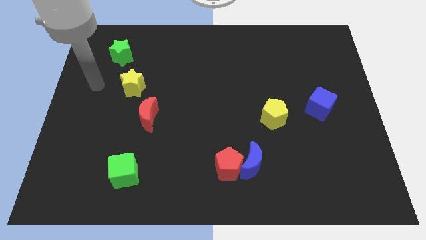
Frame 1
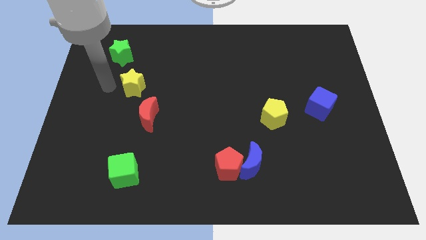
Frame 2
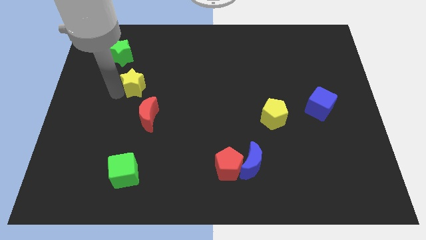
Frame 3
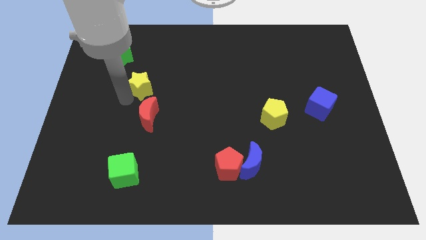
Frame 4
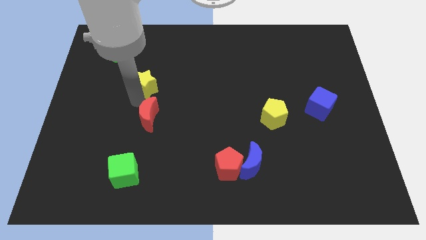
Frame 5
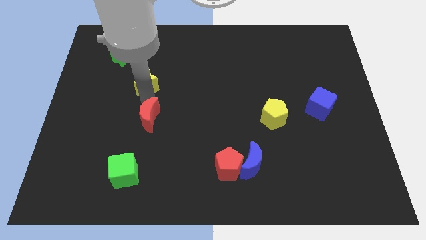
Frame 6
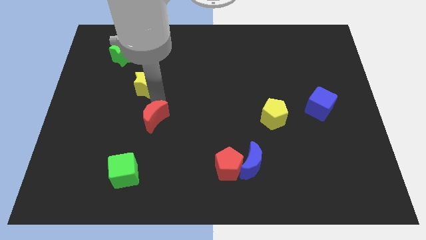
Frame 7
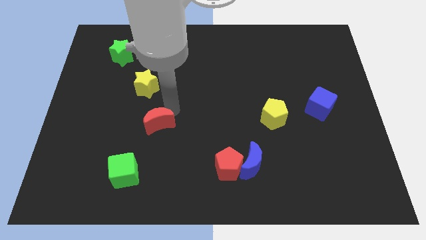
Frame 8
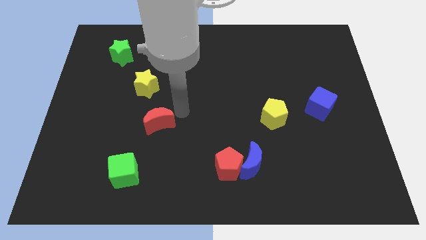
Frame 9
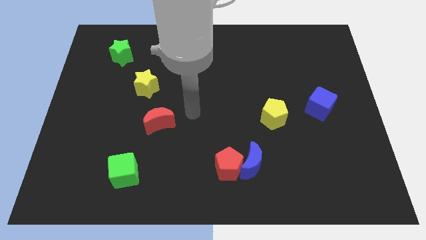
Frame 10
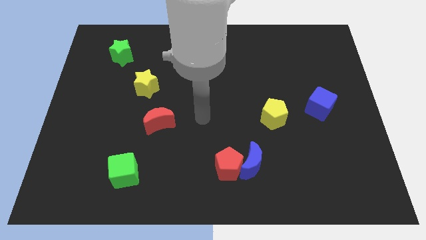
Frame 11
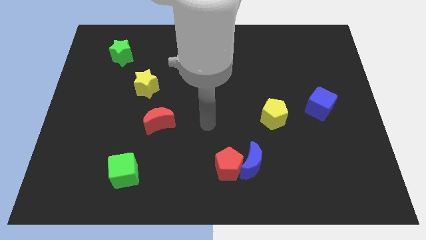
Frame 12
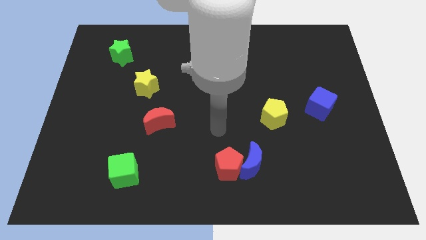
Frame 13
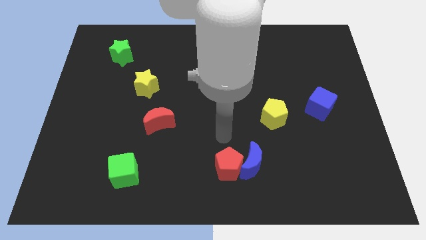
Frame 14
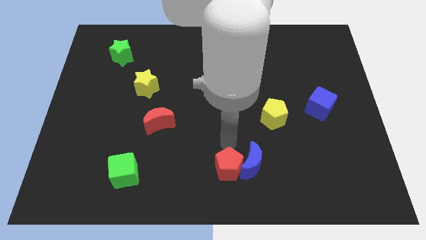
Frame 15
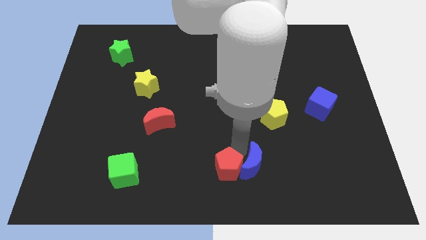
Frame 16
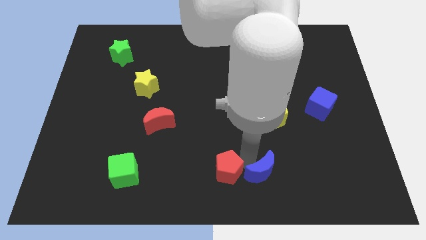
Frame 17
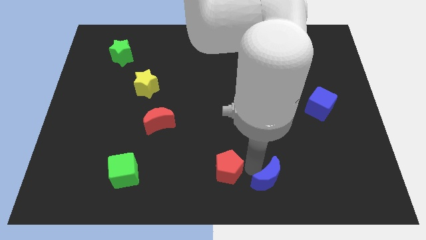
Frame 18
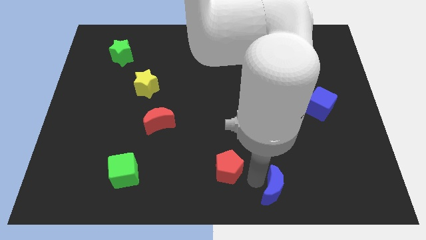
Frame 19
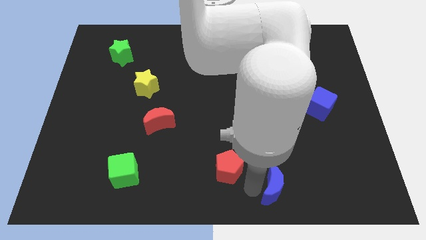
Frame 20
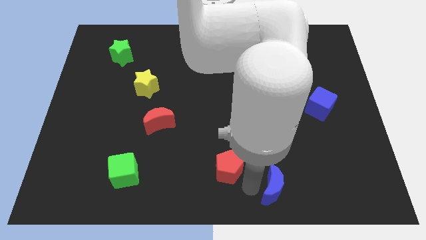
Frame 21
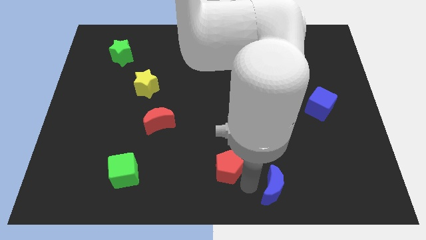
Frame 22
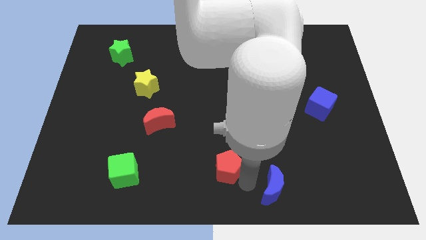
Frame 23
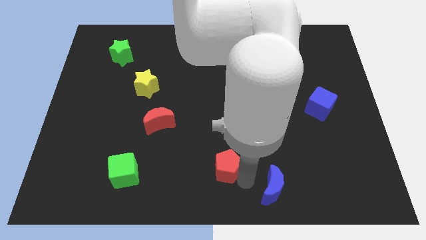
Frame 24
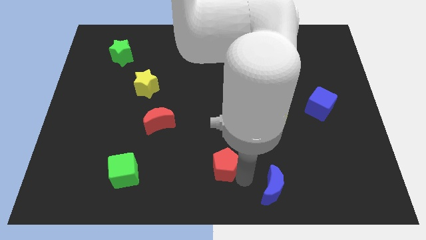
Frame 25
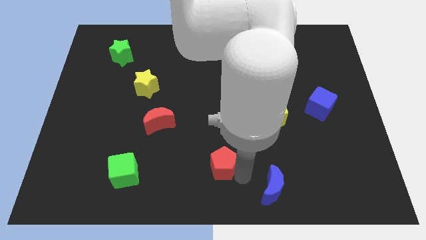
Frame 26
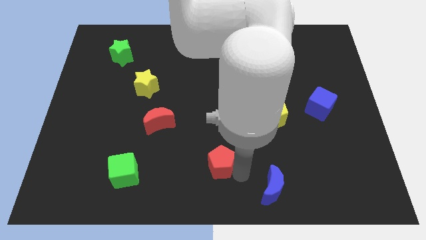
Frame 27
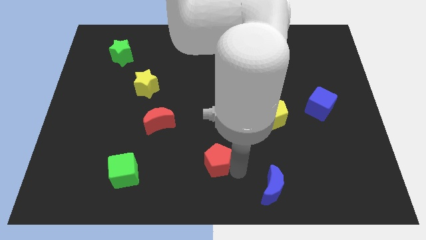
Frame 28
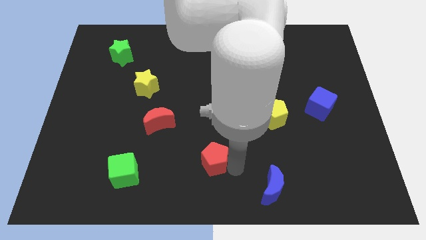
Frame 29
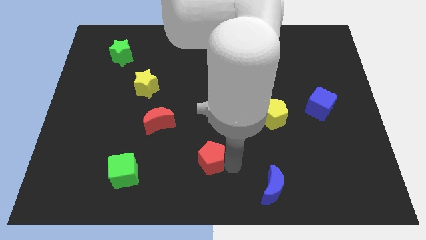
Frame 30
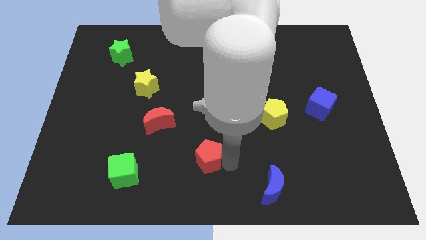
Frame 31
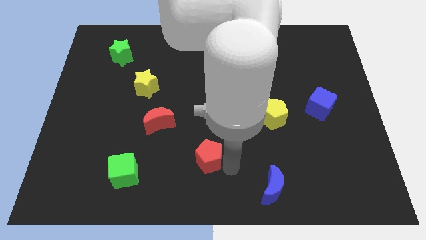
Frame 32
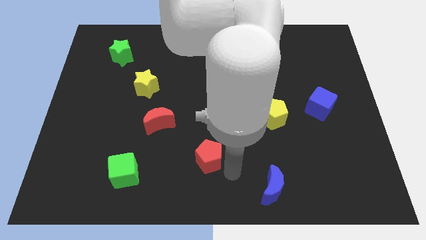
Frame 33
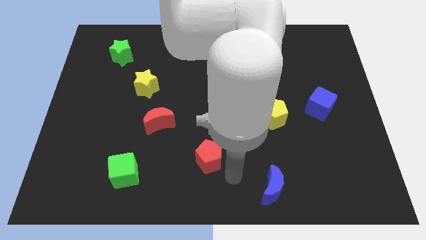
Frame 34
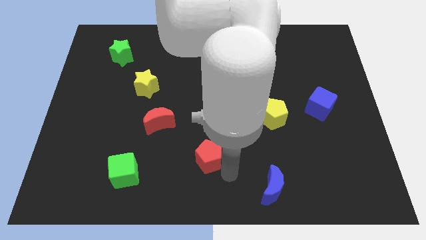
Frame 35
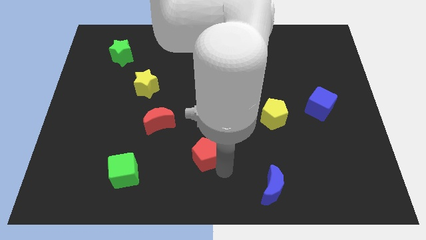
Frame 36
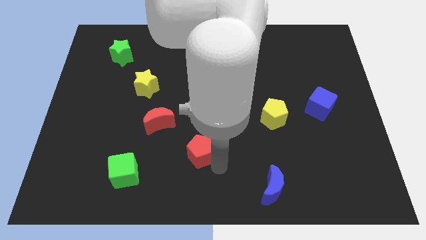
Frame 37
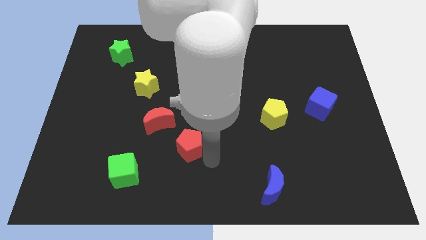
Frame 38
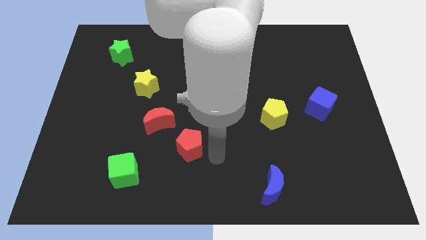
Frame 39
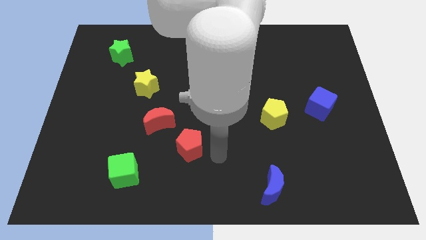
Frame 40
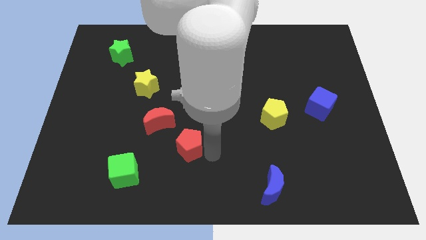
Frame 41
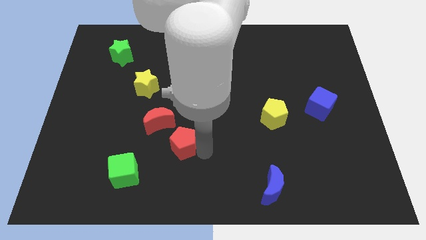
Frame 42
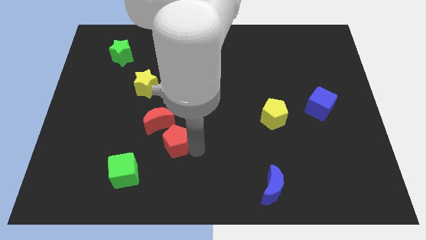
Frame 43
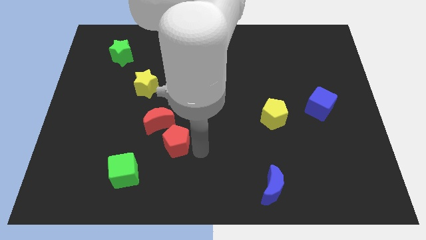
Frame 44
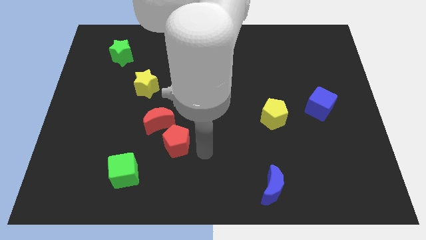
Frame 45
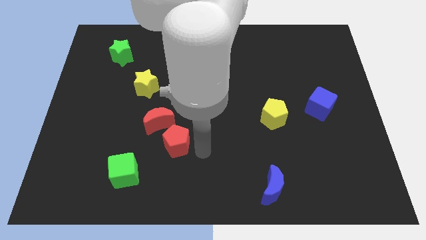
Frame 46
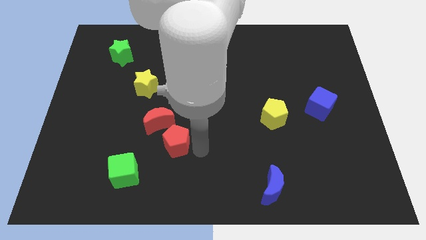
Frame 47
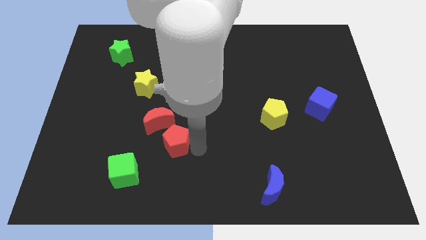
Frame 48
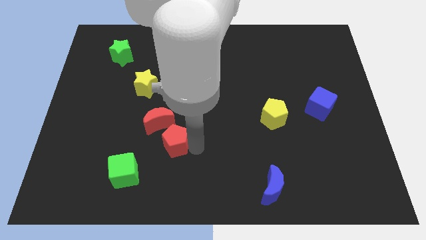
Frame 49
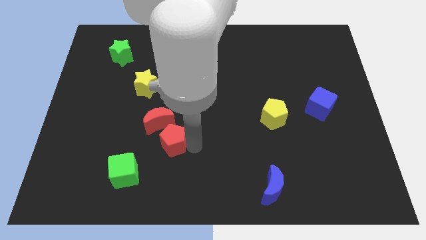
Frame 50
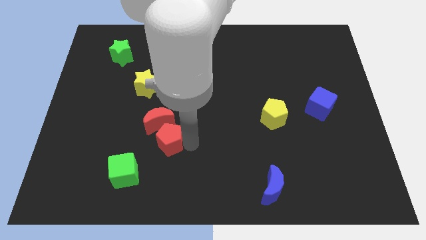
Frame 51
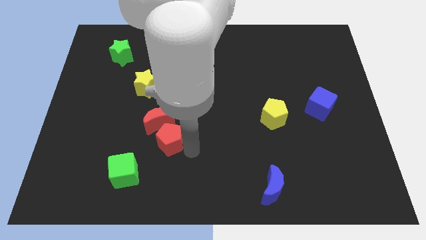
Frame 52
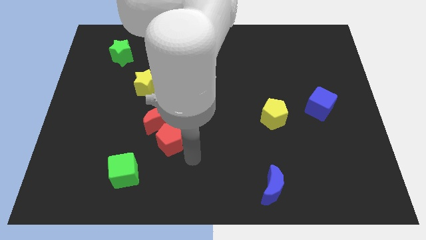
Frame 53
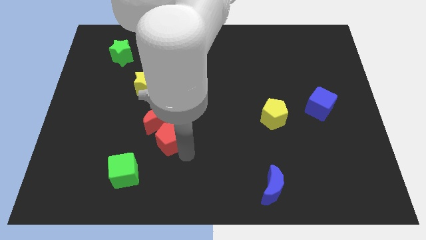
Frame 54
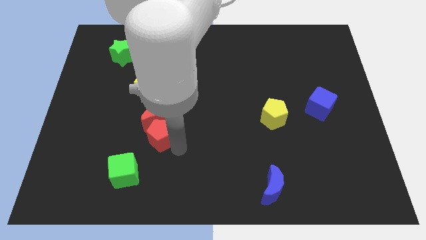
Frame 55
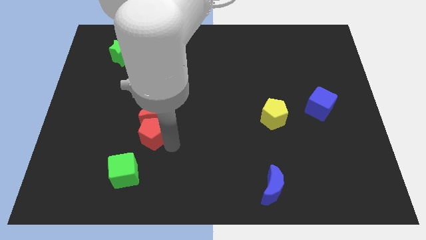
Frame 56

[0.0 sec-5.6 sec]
move the red pentagon below the yellow star

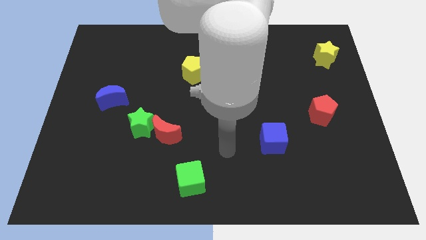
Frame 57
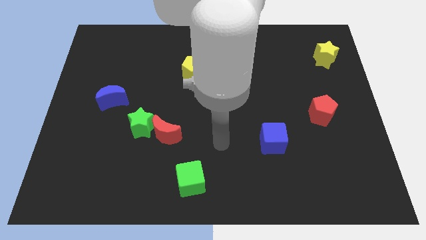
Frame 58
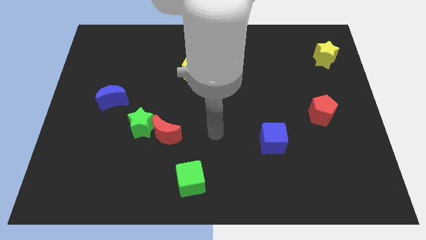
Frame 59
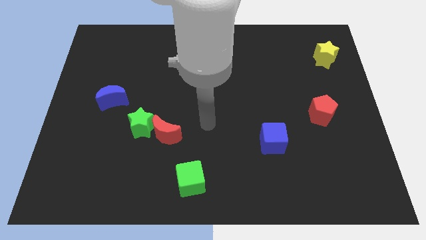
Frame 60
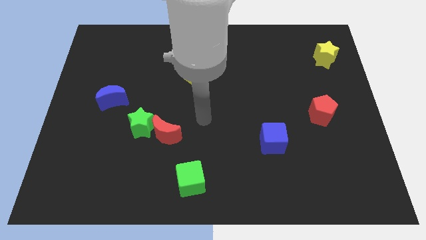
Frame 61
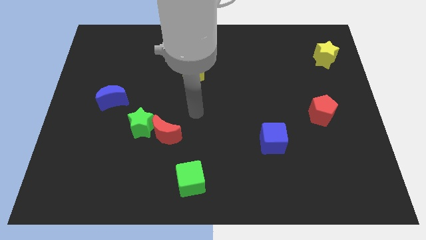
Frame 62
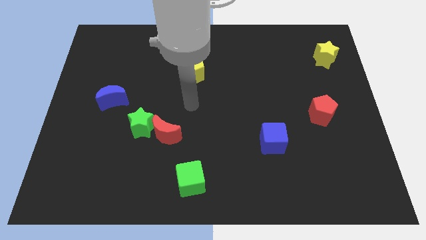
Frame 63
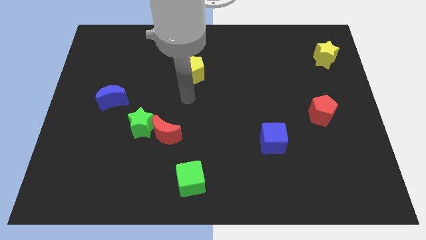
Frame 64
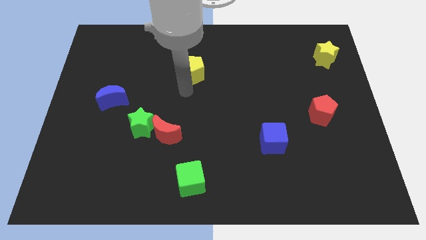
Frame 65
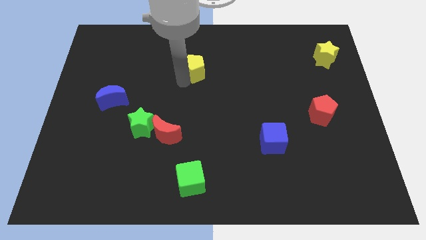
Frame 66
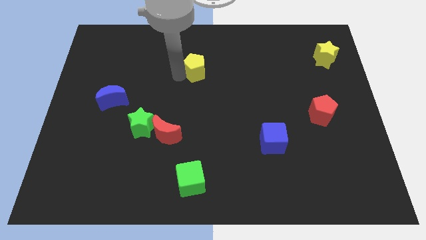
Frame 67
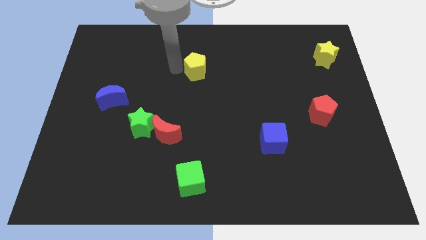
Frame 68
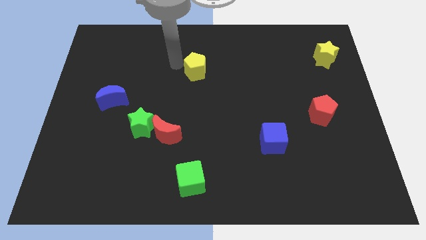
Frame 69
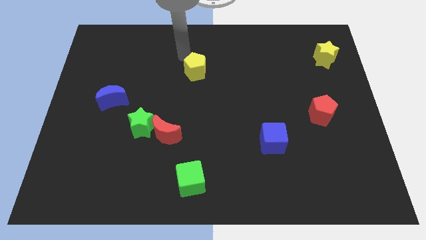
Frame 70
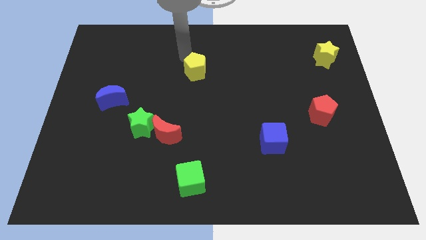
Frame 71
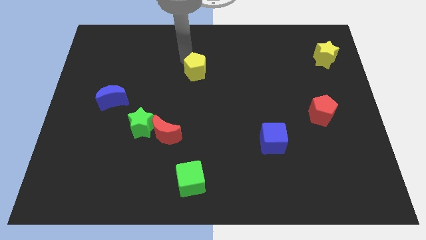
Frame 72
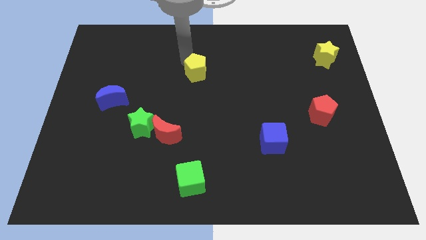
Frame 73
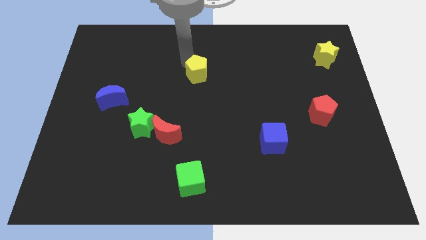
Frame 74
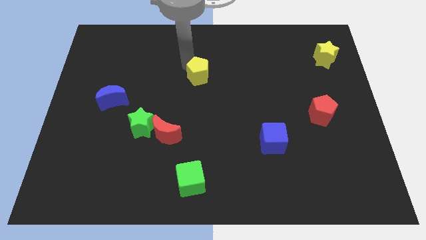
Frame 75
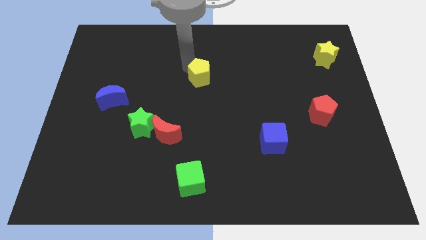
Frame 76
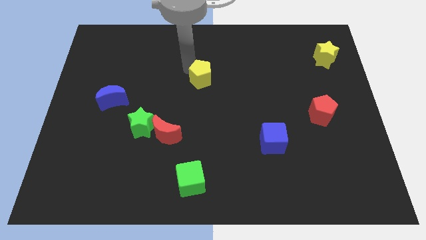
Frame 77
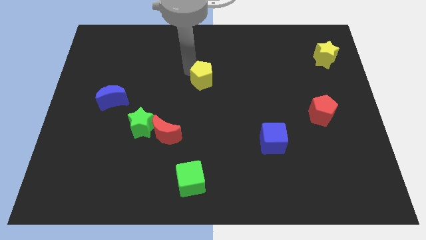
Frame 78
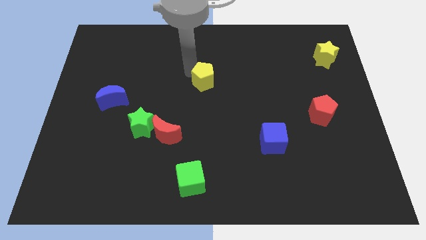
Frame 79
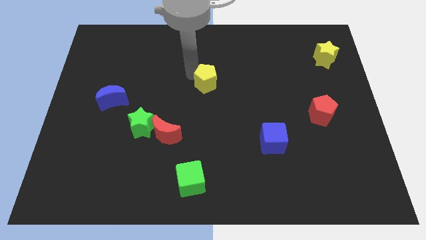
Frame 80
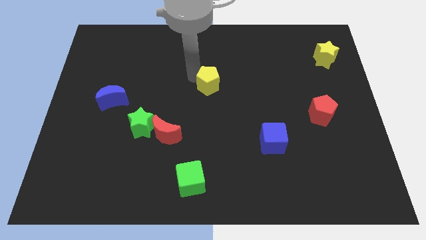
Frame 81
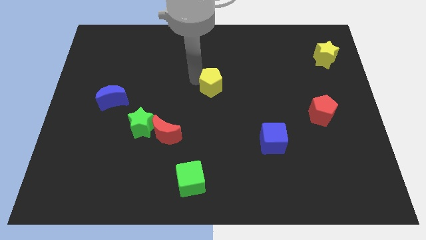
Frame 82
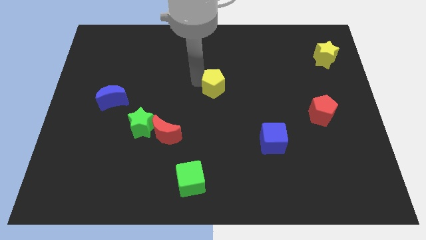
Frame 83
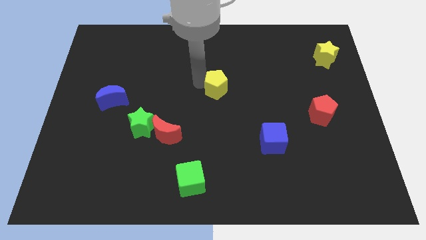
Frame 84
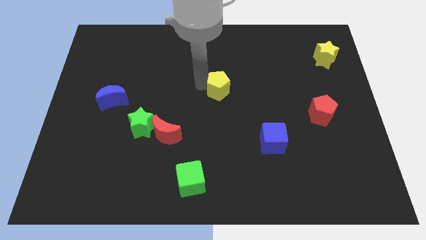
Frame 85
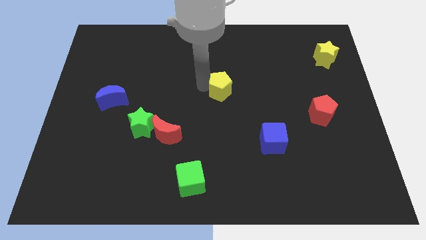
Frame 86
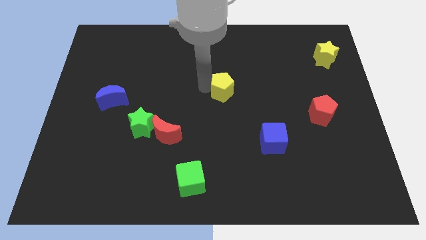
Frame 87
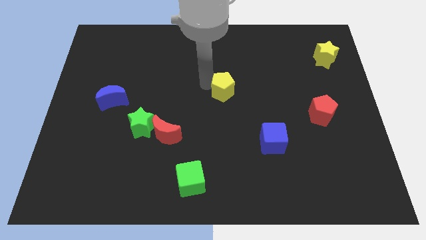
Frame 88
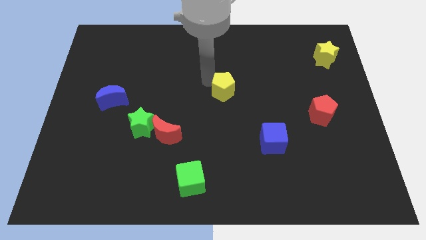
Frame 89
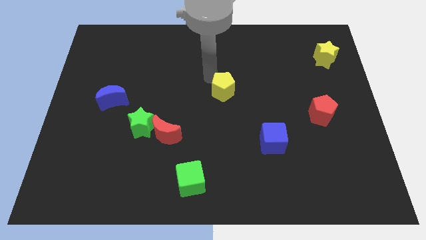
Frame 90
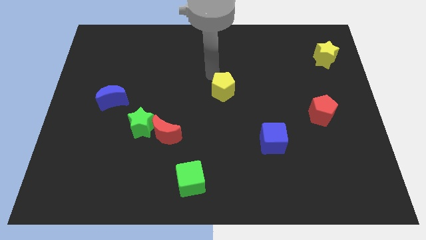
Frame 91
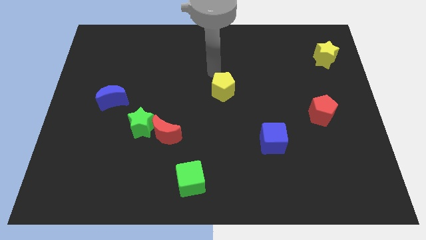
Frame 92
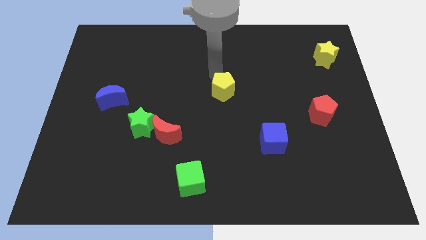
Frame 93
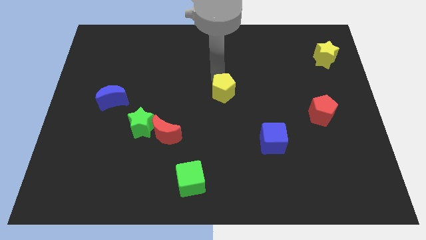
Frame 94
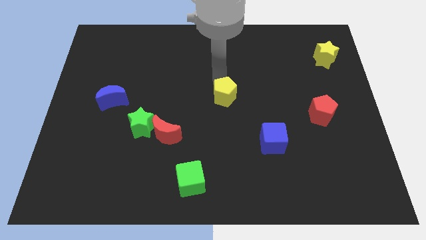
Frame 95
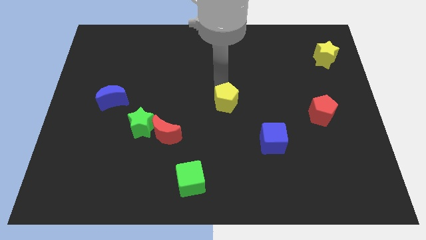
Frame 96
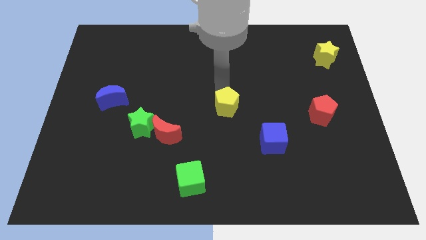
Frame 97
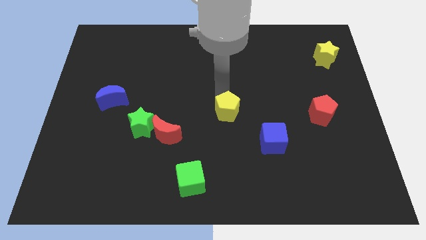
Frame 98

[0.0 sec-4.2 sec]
slide the yellow pentagon diagonally up and to the left of the blue cube
